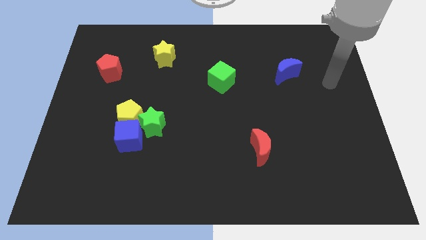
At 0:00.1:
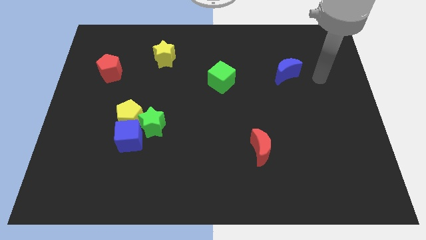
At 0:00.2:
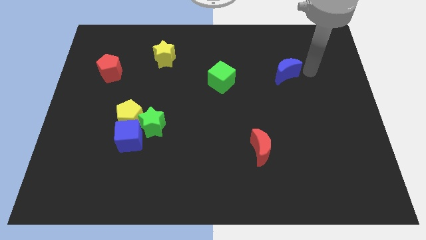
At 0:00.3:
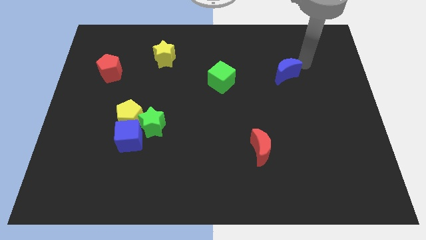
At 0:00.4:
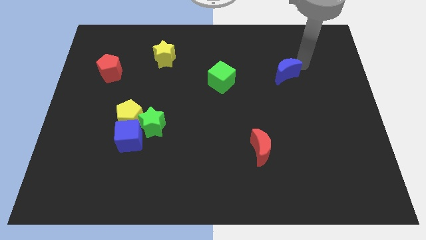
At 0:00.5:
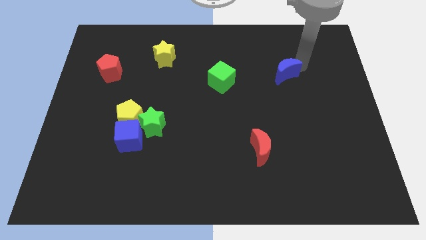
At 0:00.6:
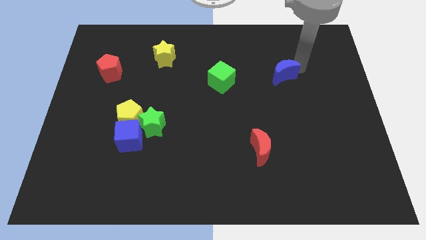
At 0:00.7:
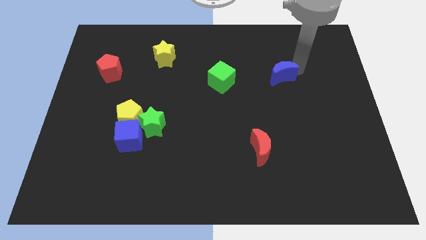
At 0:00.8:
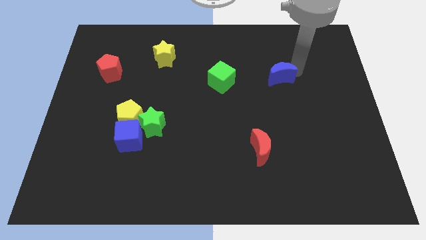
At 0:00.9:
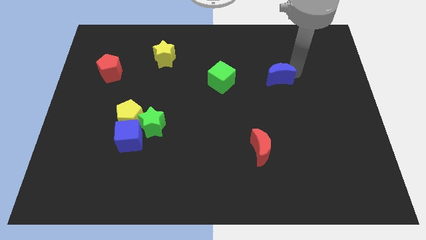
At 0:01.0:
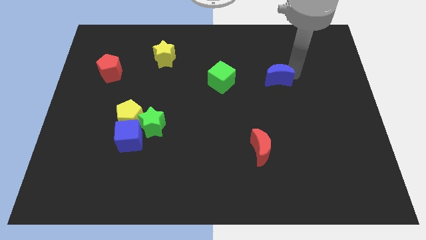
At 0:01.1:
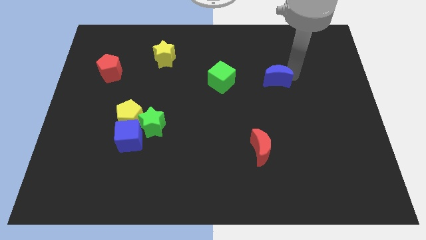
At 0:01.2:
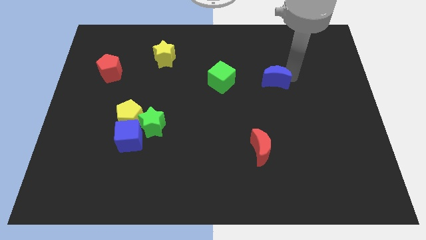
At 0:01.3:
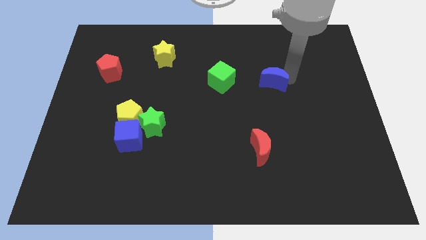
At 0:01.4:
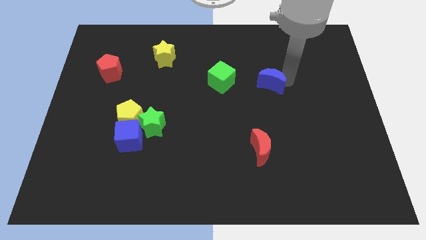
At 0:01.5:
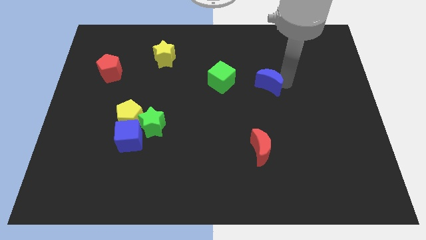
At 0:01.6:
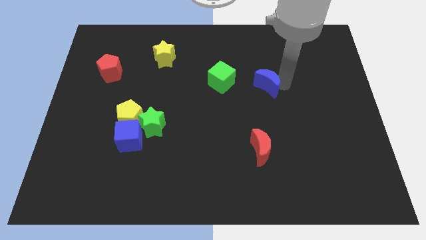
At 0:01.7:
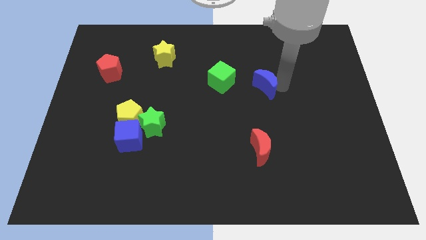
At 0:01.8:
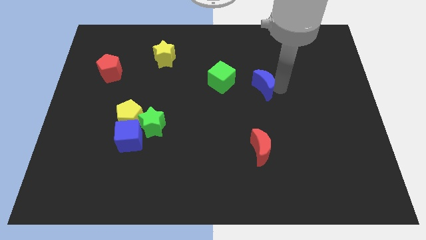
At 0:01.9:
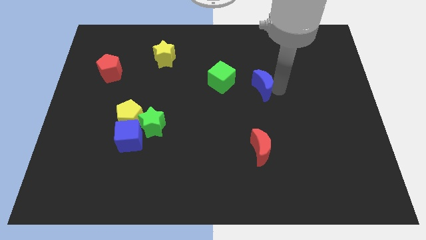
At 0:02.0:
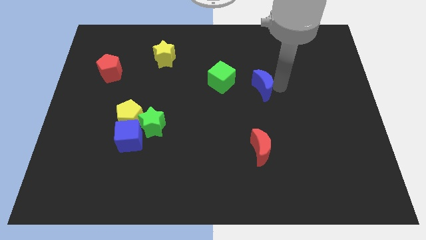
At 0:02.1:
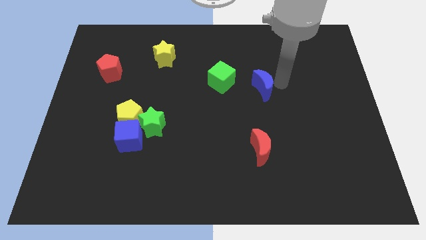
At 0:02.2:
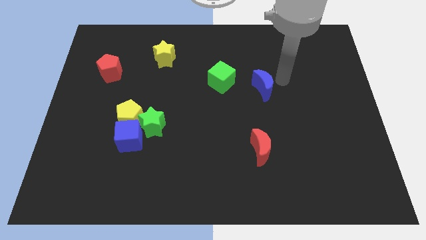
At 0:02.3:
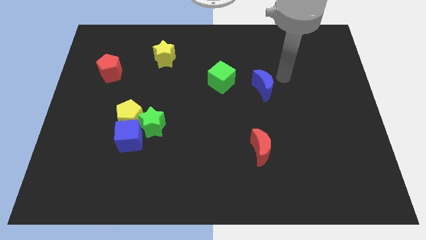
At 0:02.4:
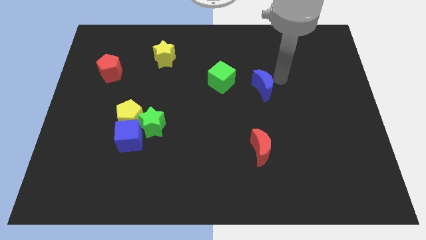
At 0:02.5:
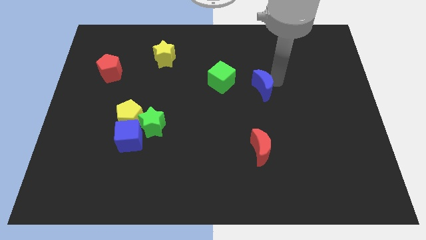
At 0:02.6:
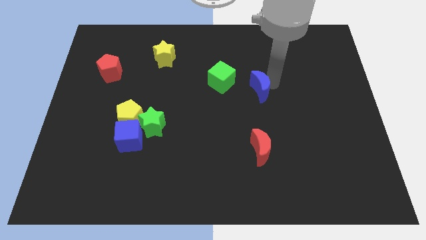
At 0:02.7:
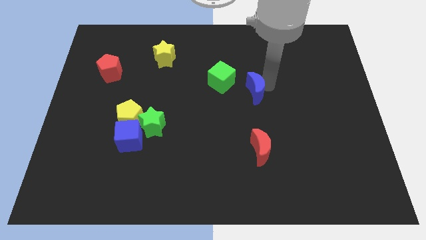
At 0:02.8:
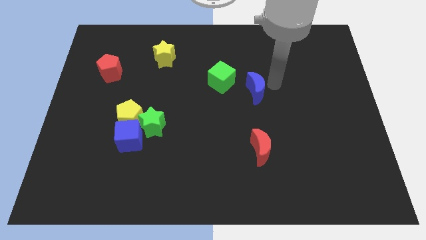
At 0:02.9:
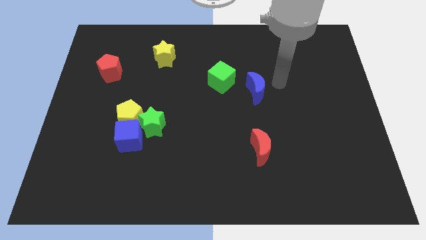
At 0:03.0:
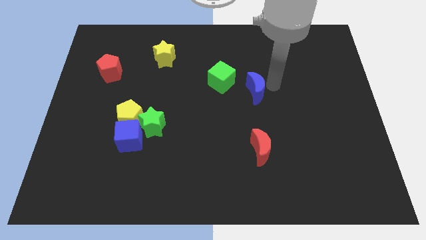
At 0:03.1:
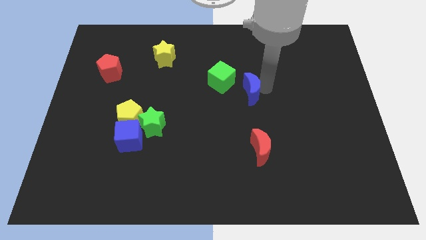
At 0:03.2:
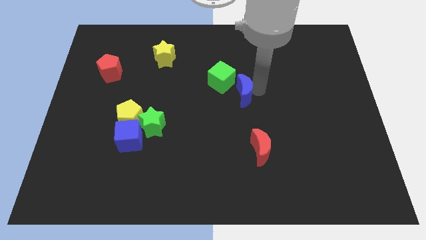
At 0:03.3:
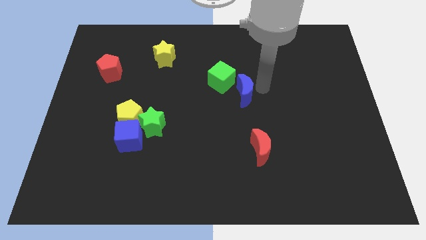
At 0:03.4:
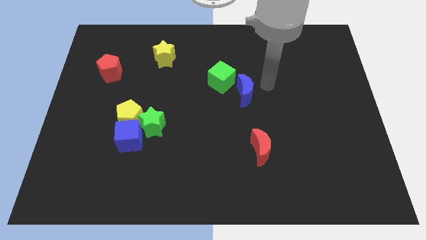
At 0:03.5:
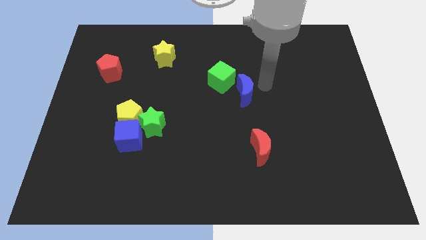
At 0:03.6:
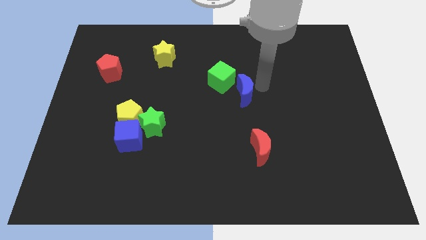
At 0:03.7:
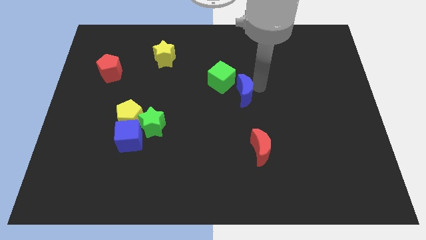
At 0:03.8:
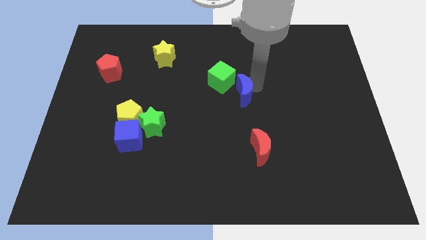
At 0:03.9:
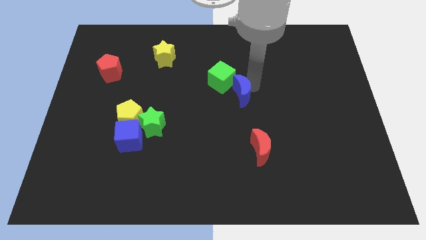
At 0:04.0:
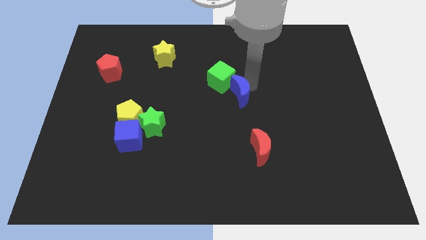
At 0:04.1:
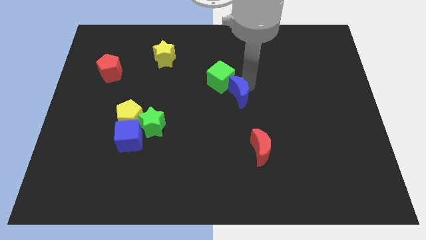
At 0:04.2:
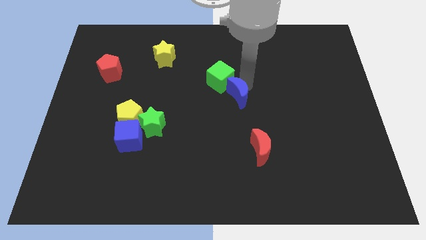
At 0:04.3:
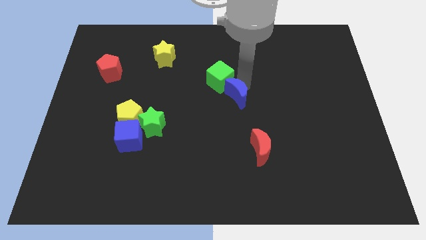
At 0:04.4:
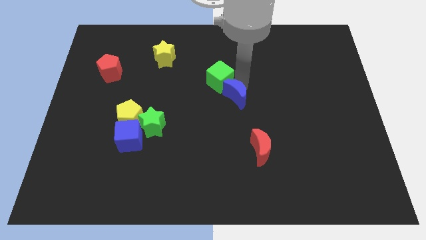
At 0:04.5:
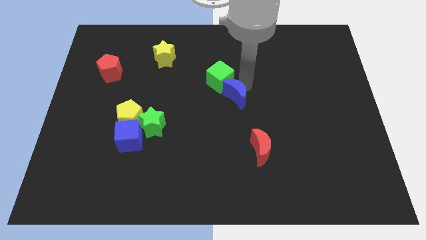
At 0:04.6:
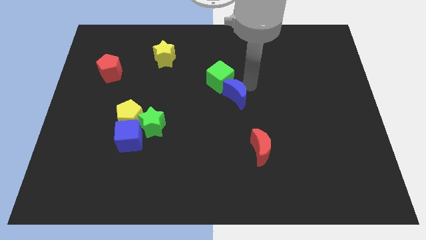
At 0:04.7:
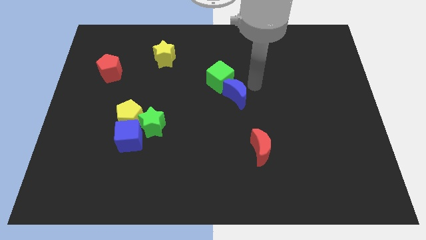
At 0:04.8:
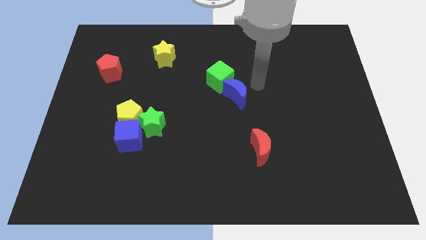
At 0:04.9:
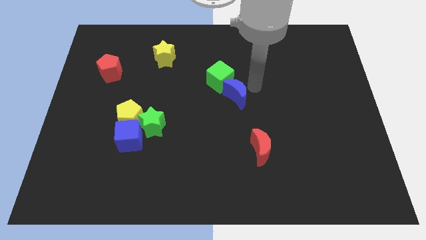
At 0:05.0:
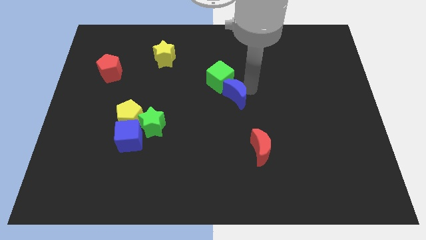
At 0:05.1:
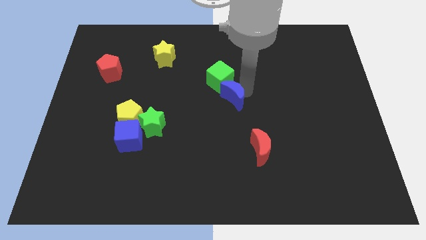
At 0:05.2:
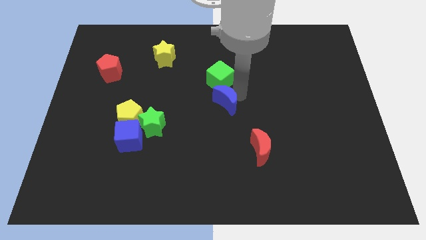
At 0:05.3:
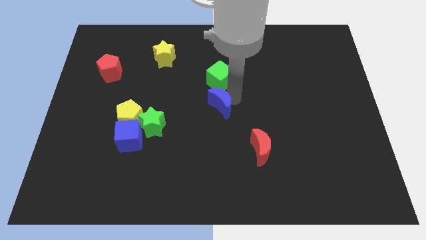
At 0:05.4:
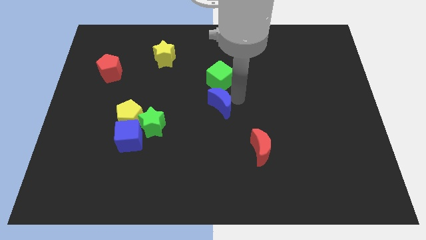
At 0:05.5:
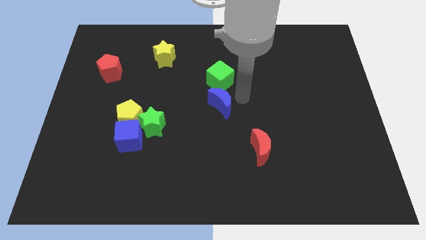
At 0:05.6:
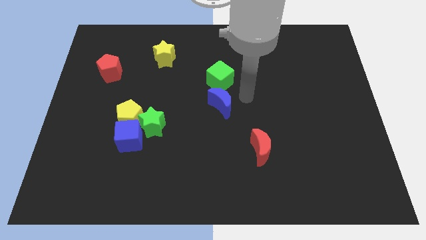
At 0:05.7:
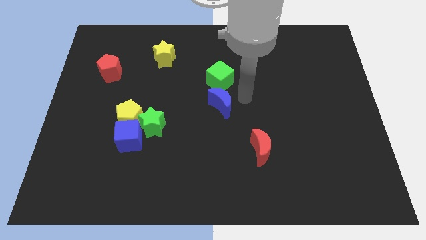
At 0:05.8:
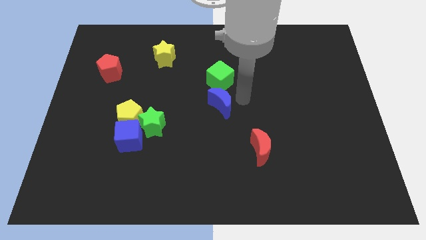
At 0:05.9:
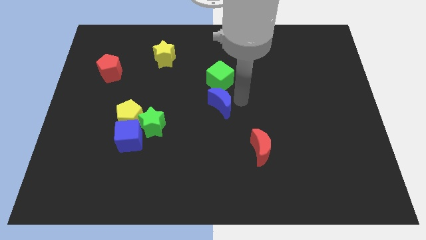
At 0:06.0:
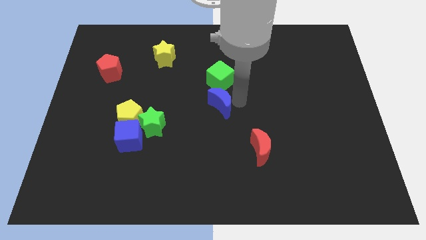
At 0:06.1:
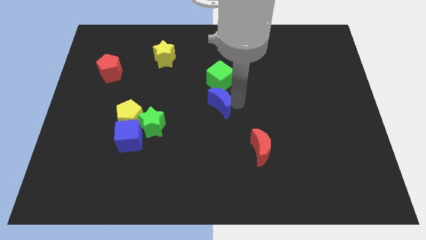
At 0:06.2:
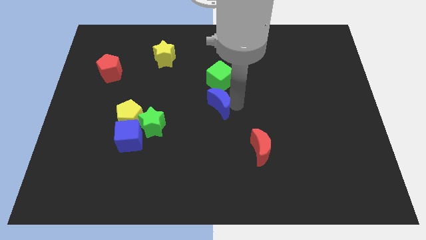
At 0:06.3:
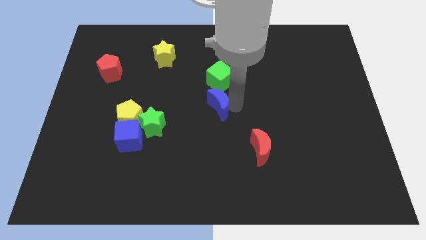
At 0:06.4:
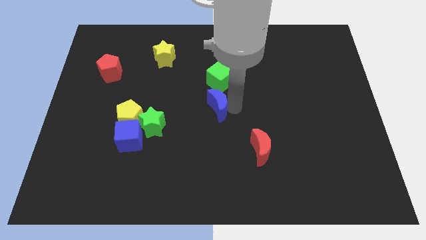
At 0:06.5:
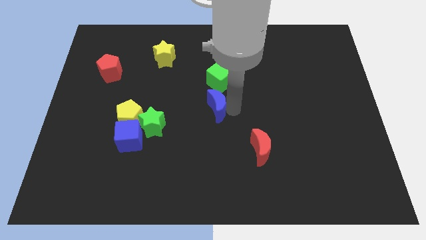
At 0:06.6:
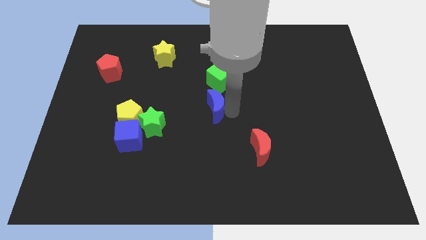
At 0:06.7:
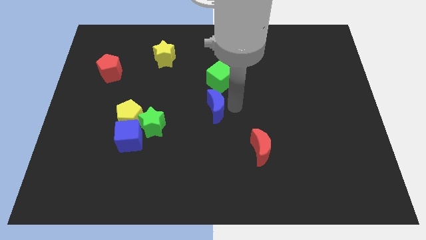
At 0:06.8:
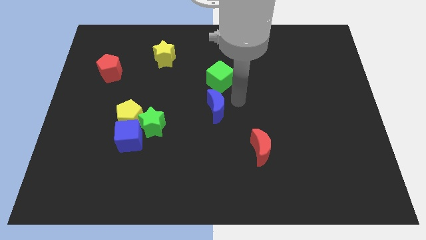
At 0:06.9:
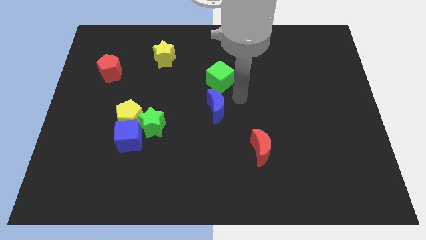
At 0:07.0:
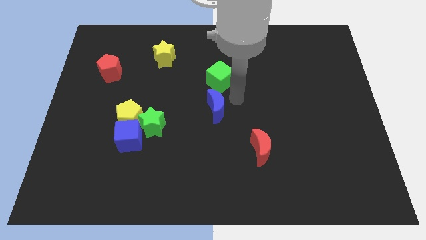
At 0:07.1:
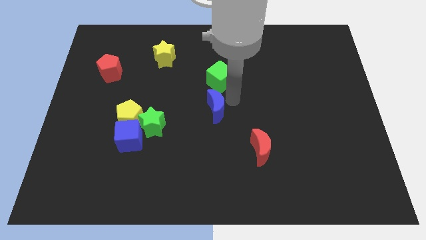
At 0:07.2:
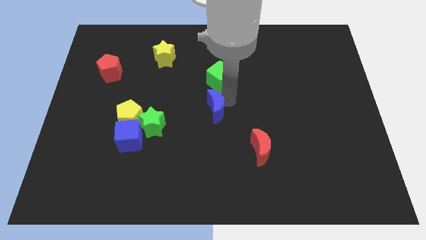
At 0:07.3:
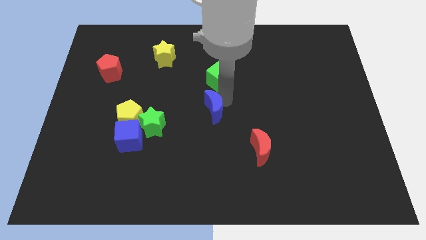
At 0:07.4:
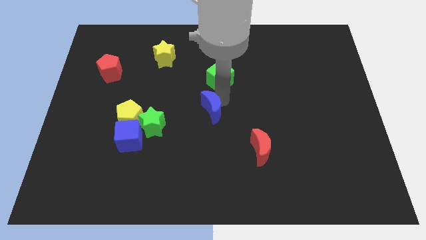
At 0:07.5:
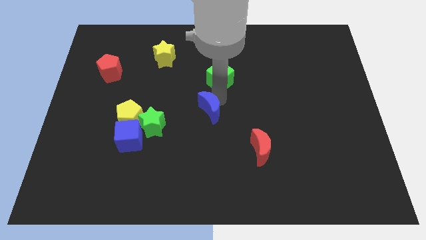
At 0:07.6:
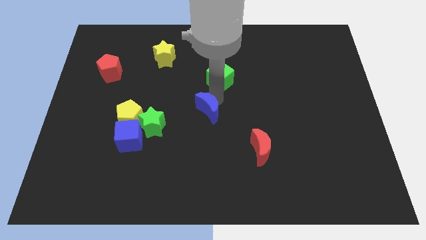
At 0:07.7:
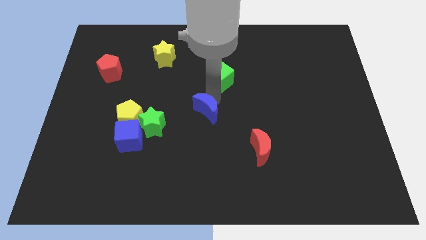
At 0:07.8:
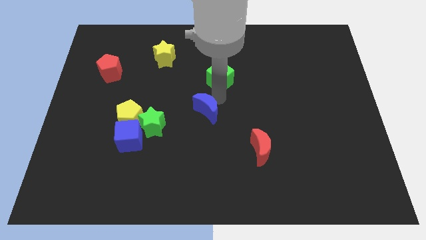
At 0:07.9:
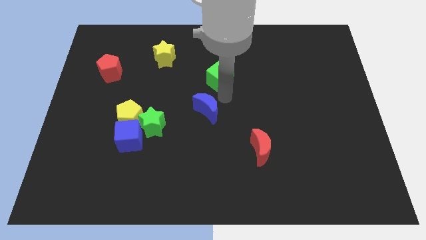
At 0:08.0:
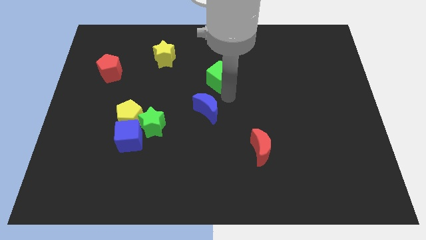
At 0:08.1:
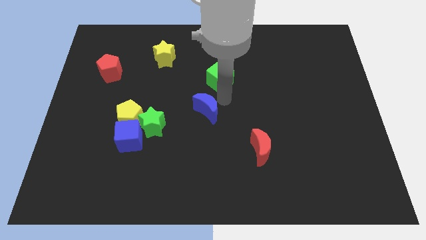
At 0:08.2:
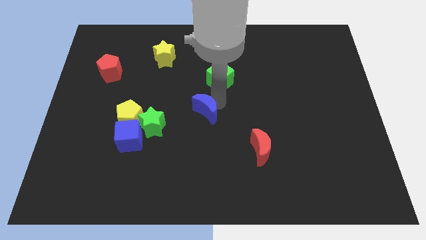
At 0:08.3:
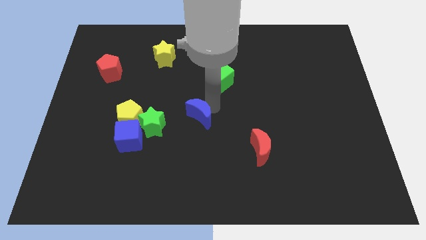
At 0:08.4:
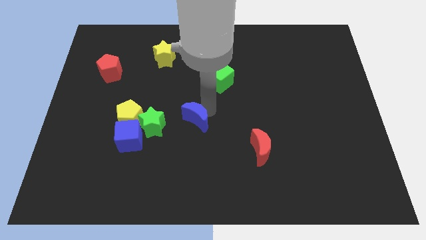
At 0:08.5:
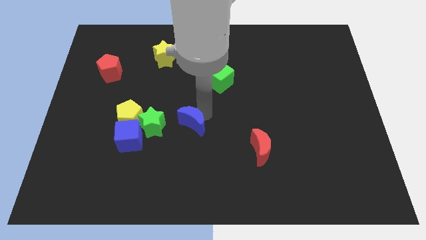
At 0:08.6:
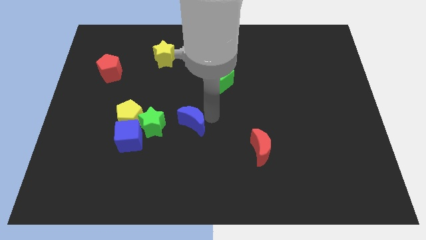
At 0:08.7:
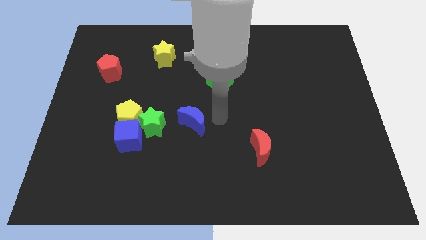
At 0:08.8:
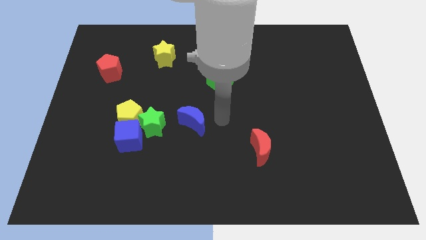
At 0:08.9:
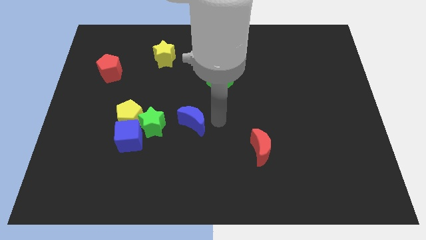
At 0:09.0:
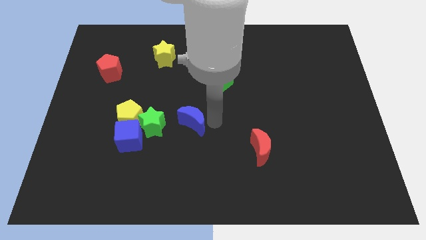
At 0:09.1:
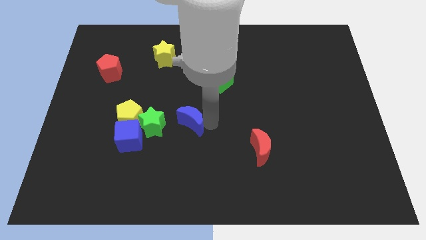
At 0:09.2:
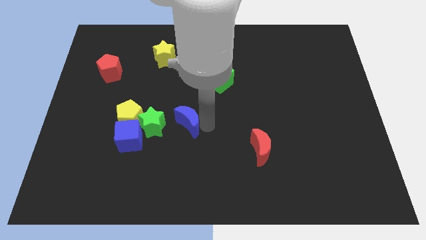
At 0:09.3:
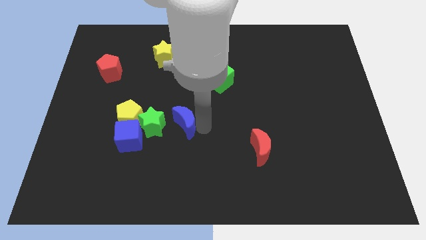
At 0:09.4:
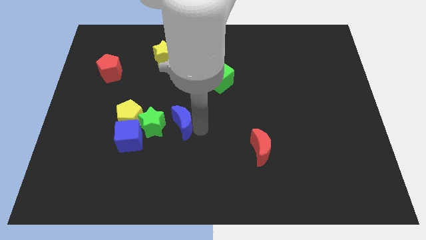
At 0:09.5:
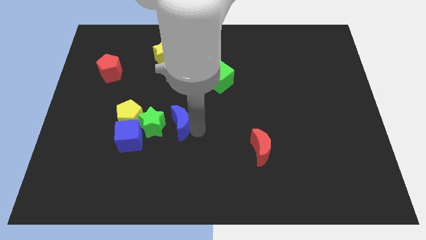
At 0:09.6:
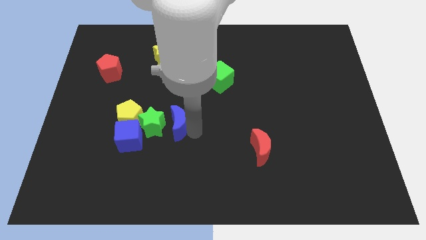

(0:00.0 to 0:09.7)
put the blue moon next to the green star
